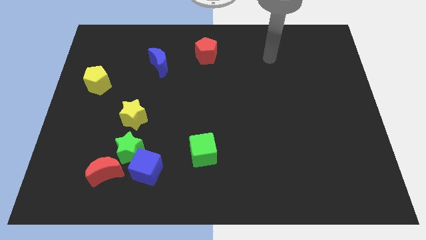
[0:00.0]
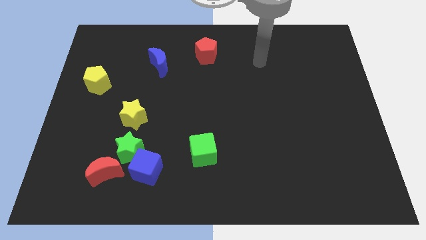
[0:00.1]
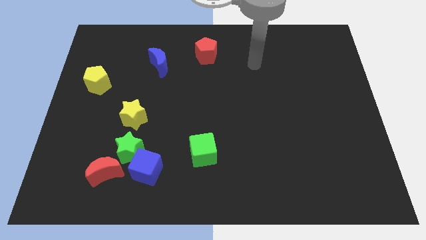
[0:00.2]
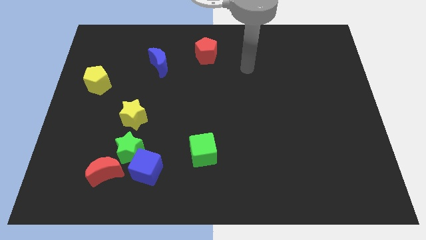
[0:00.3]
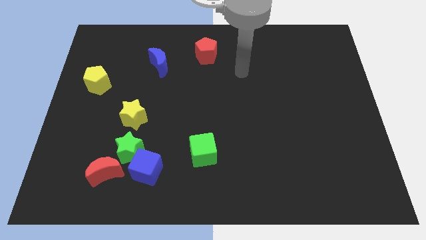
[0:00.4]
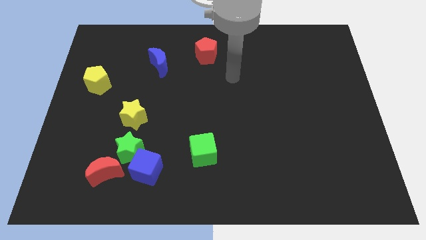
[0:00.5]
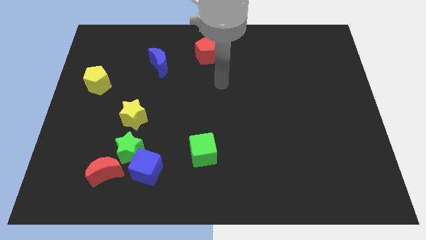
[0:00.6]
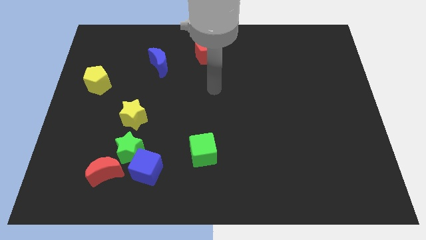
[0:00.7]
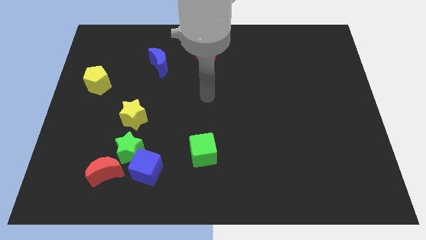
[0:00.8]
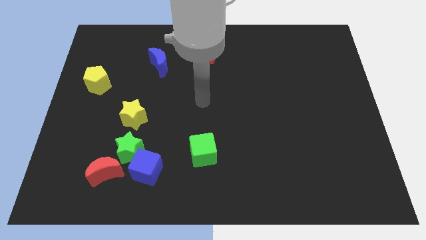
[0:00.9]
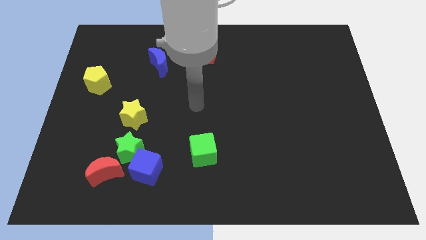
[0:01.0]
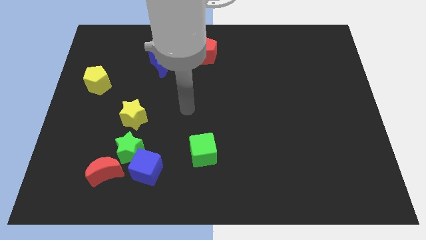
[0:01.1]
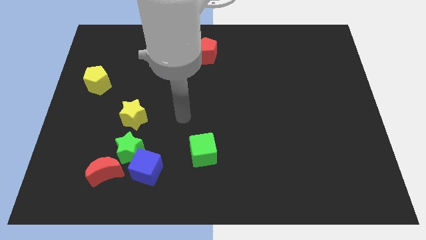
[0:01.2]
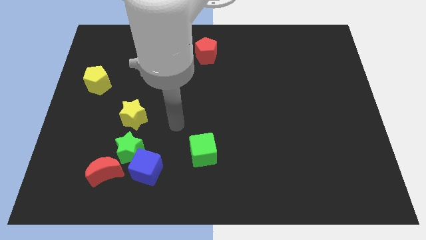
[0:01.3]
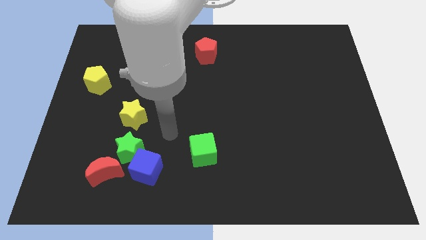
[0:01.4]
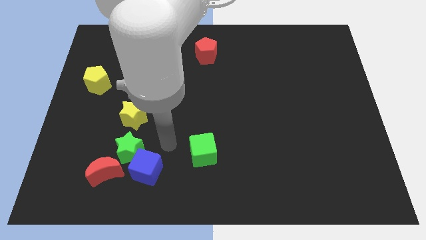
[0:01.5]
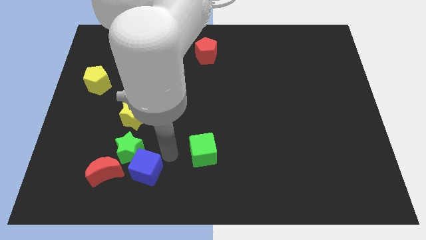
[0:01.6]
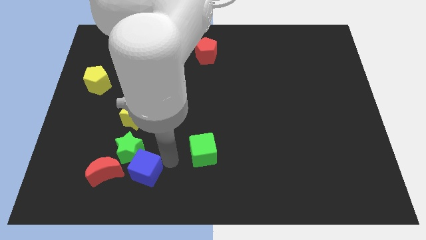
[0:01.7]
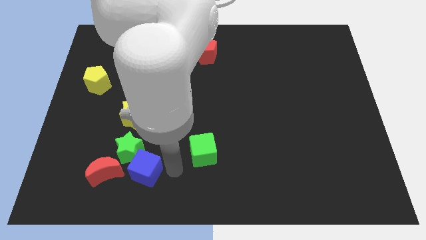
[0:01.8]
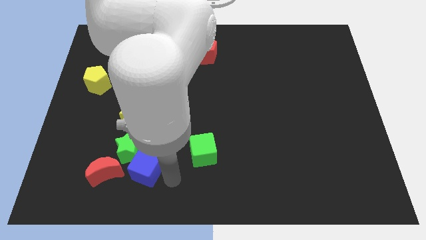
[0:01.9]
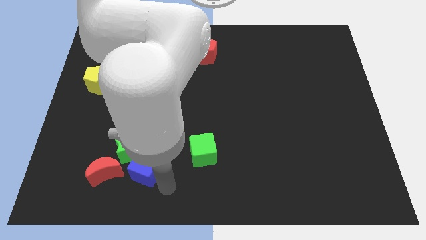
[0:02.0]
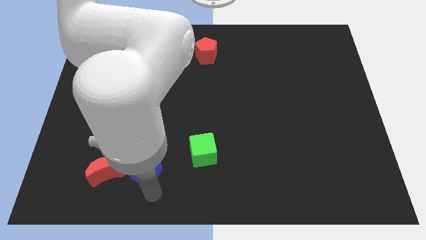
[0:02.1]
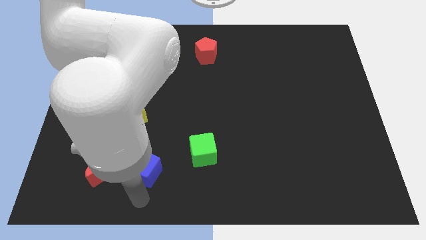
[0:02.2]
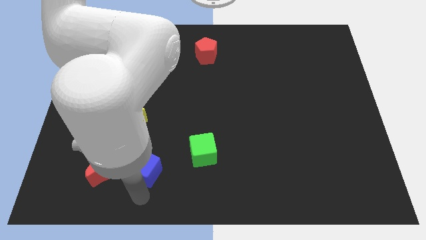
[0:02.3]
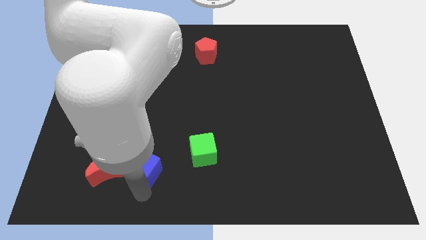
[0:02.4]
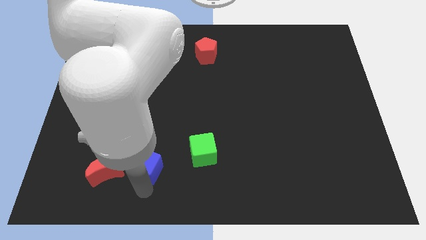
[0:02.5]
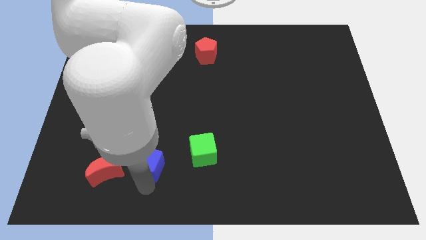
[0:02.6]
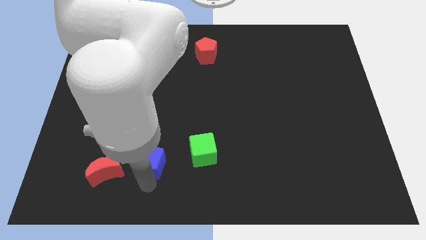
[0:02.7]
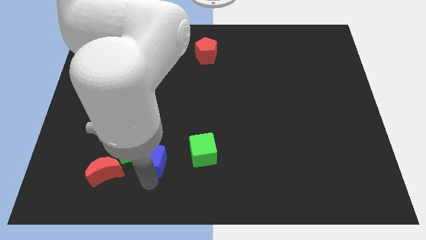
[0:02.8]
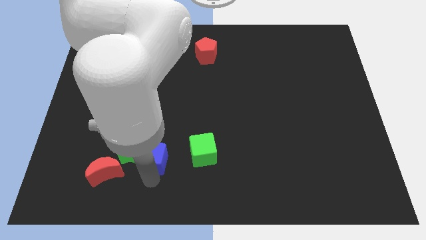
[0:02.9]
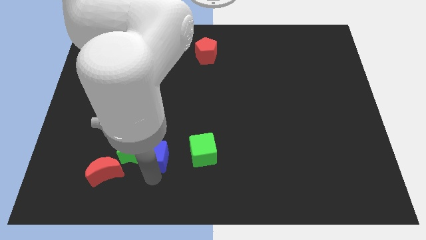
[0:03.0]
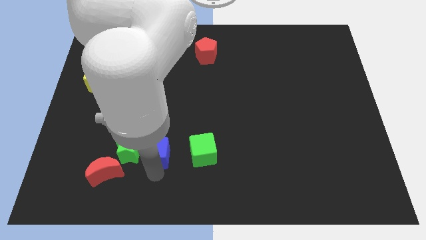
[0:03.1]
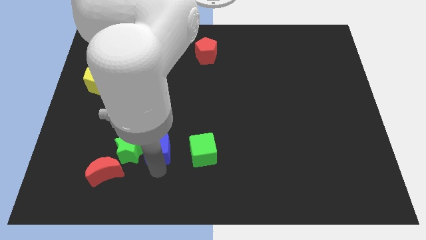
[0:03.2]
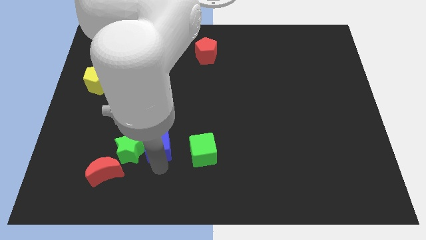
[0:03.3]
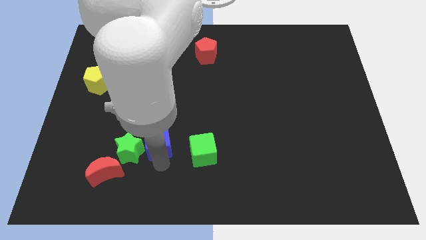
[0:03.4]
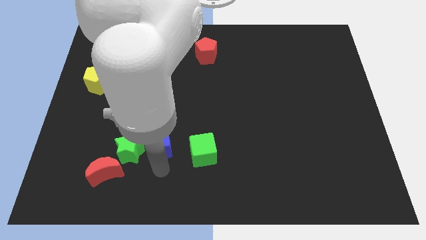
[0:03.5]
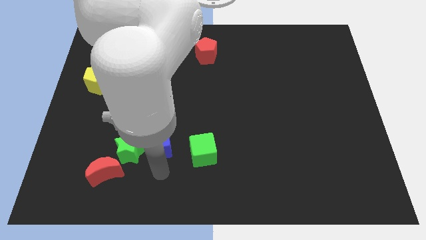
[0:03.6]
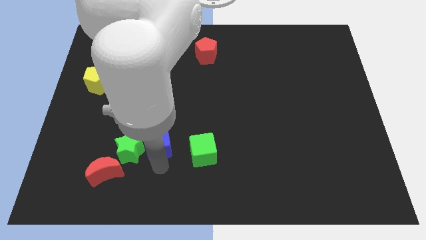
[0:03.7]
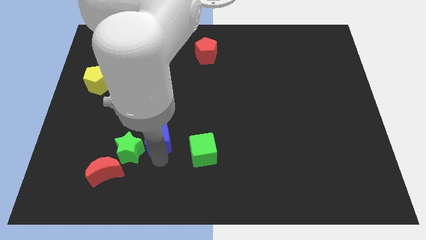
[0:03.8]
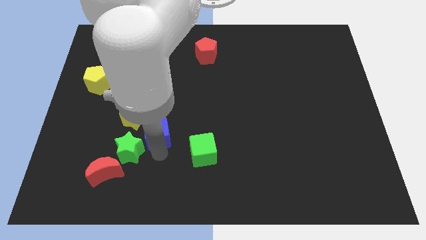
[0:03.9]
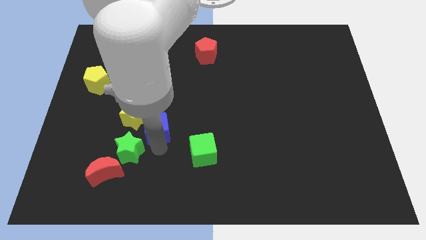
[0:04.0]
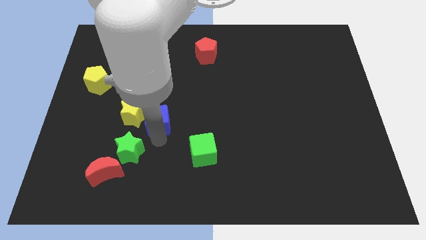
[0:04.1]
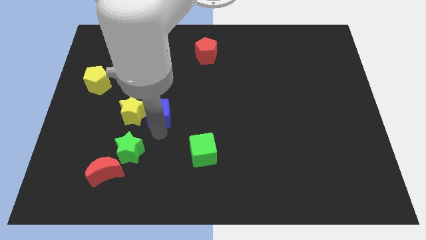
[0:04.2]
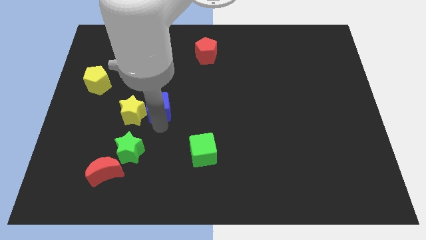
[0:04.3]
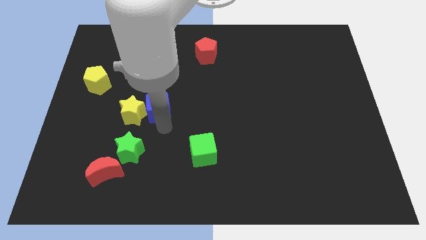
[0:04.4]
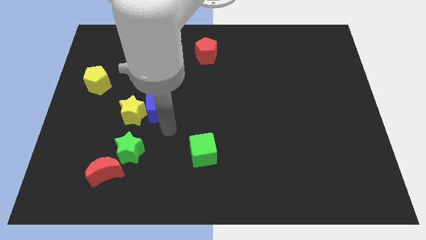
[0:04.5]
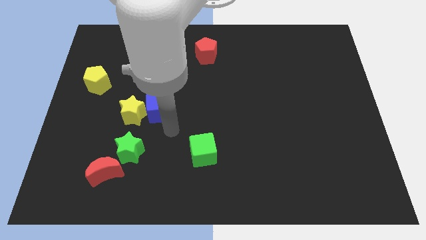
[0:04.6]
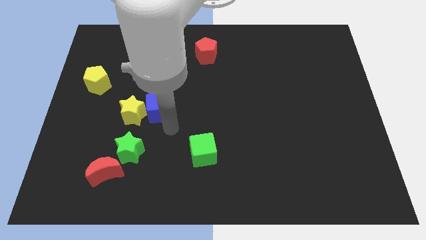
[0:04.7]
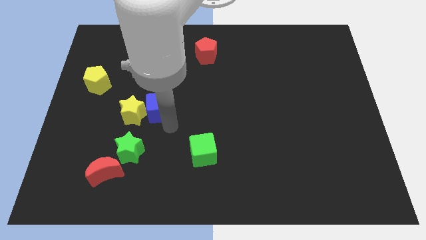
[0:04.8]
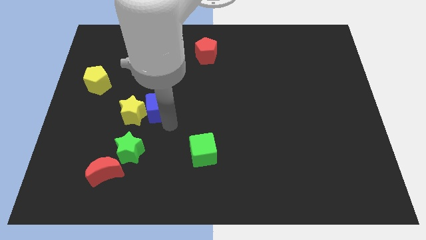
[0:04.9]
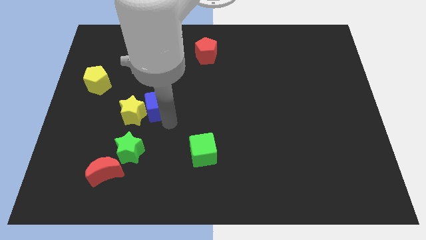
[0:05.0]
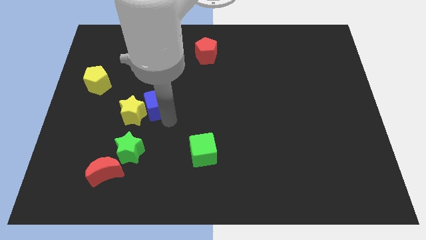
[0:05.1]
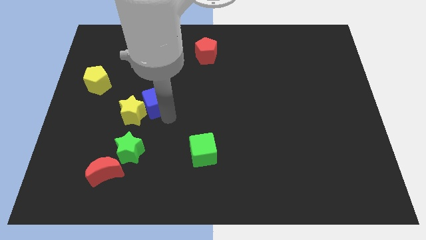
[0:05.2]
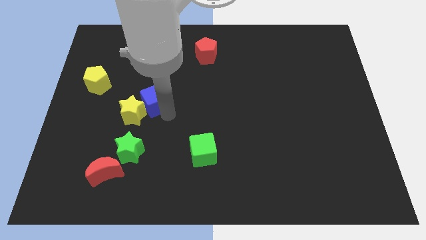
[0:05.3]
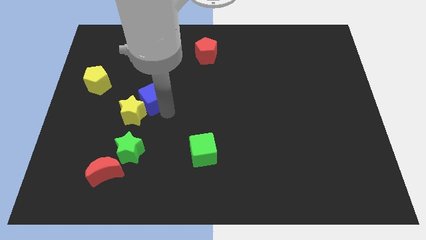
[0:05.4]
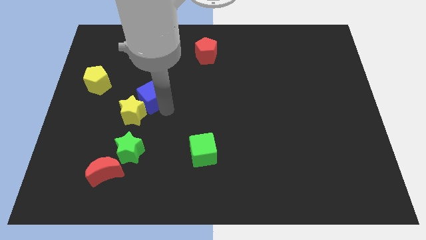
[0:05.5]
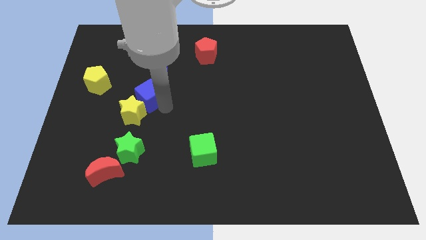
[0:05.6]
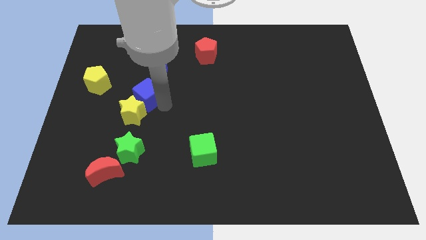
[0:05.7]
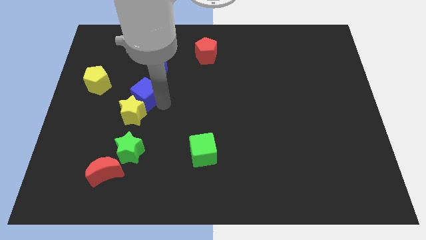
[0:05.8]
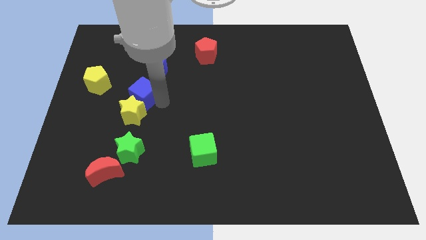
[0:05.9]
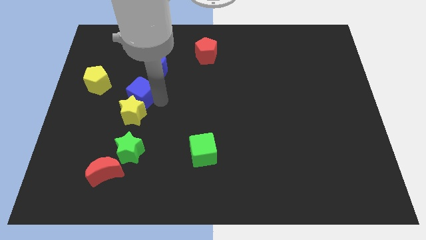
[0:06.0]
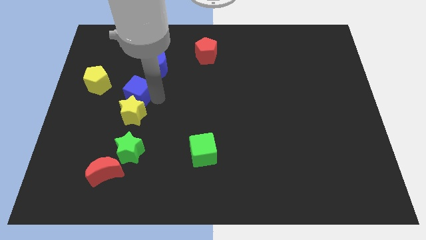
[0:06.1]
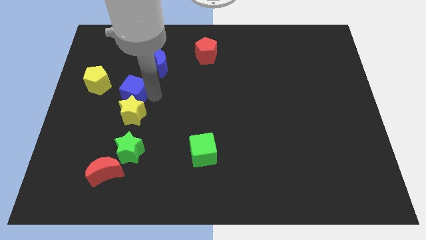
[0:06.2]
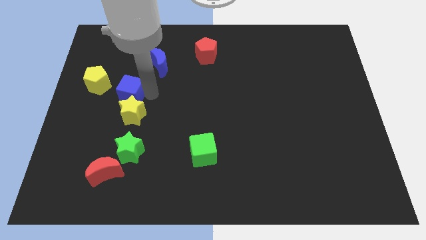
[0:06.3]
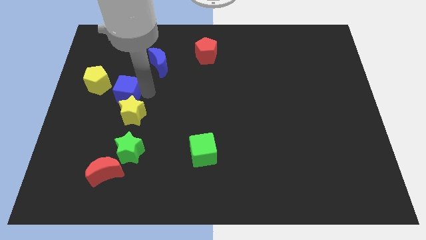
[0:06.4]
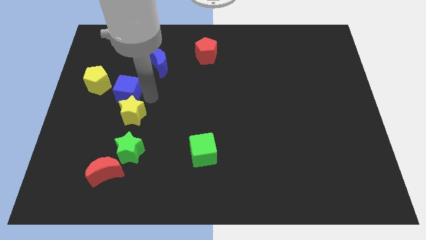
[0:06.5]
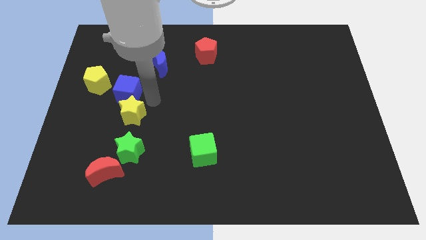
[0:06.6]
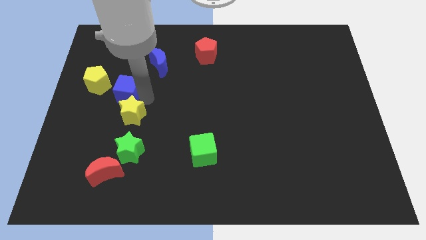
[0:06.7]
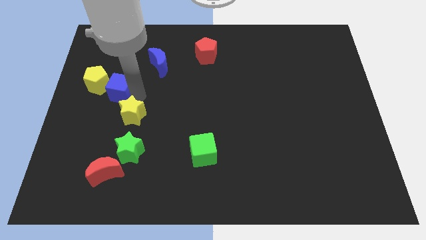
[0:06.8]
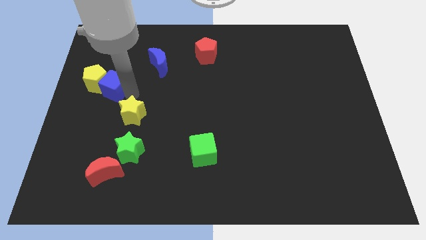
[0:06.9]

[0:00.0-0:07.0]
push the blue cube close to the yellow pentagon

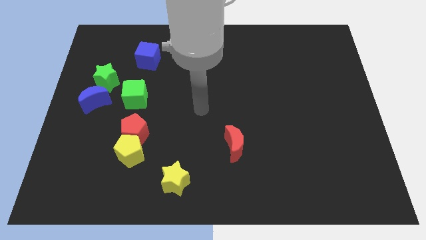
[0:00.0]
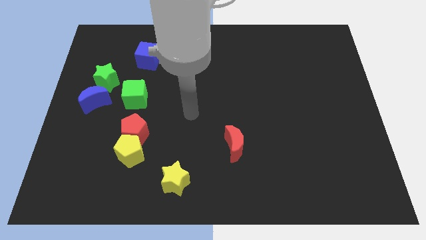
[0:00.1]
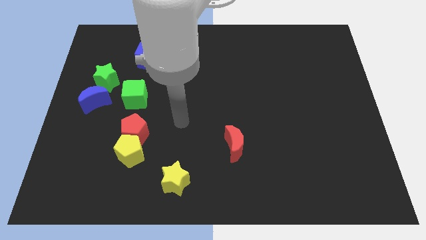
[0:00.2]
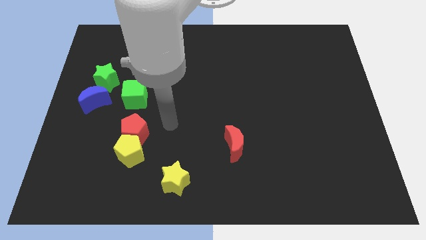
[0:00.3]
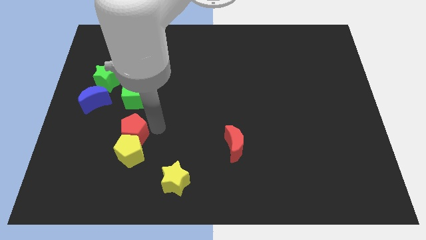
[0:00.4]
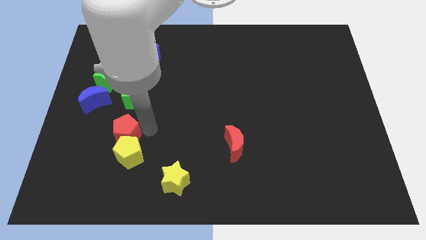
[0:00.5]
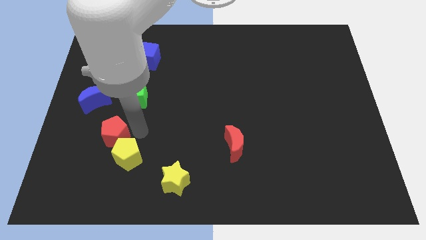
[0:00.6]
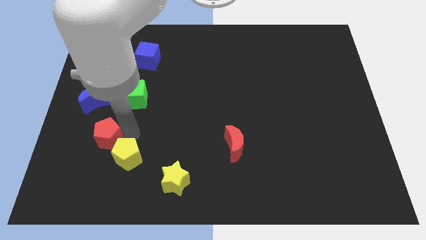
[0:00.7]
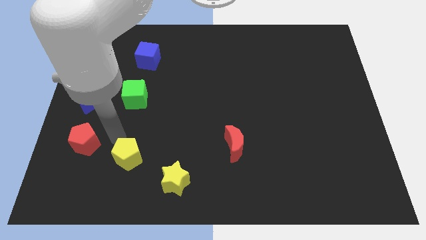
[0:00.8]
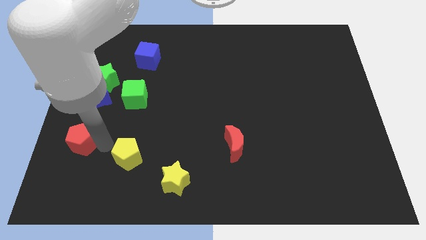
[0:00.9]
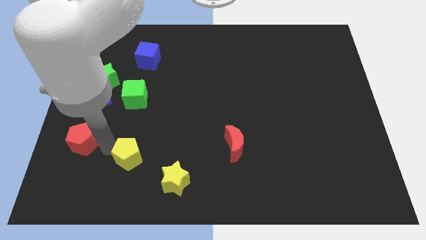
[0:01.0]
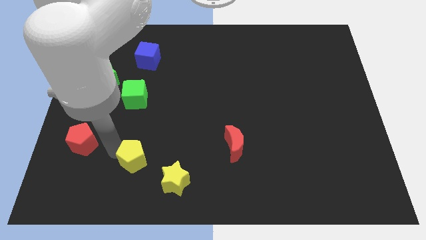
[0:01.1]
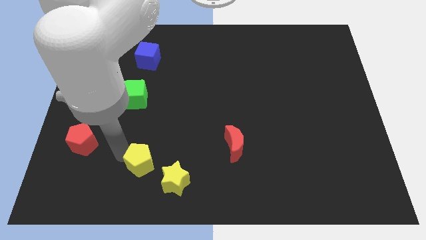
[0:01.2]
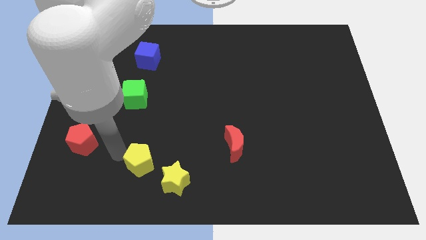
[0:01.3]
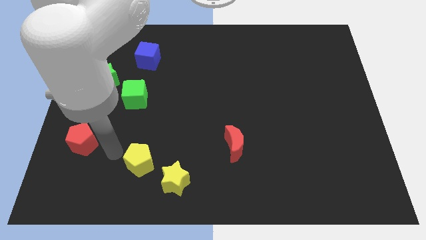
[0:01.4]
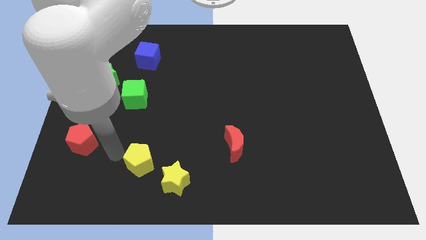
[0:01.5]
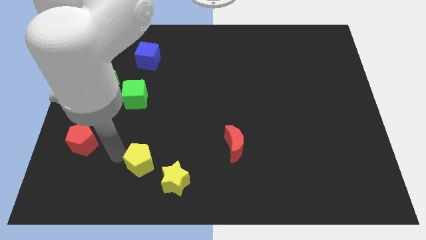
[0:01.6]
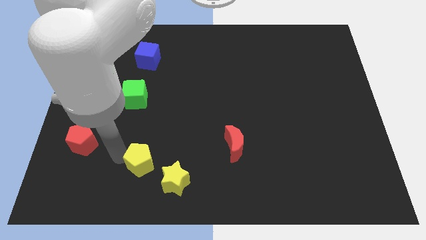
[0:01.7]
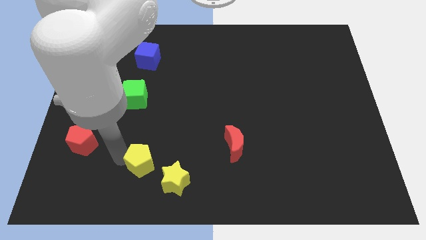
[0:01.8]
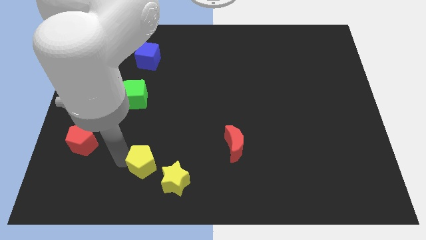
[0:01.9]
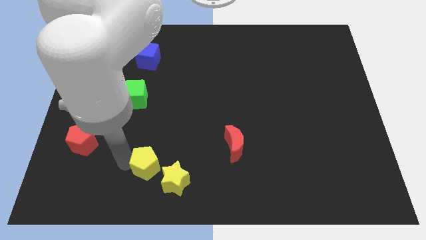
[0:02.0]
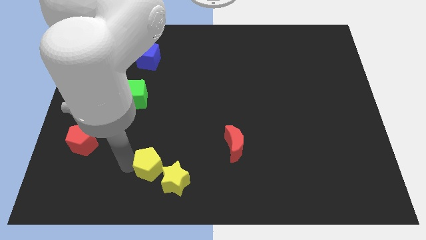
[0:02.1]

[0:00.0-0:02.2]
put the yellow pentagon towards the yellow star
